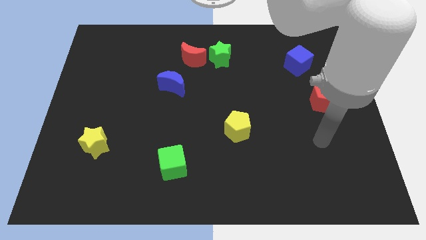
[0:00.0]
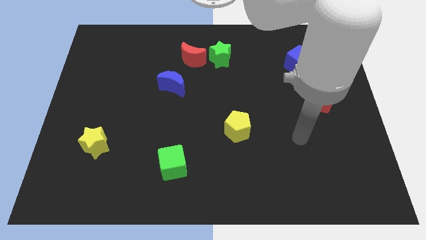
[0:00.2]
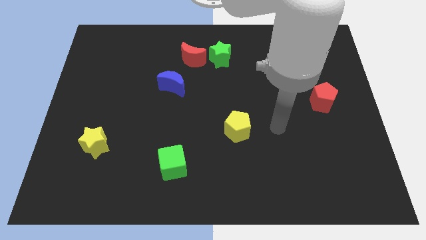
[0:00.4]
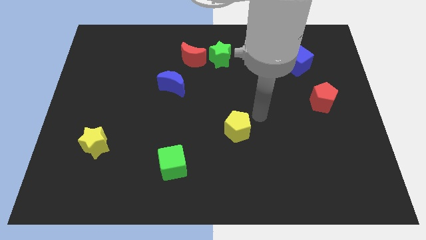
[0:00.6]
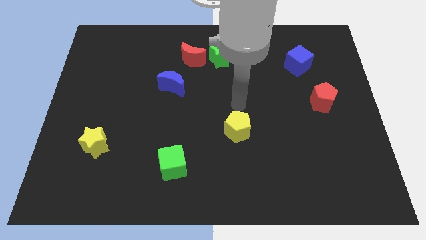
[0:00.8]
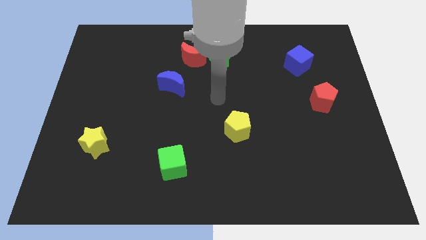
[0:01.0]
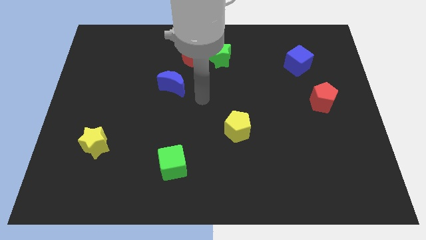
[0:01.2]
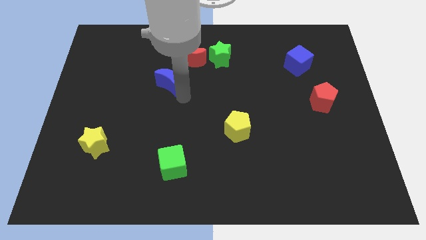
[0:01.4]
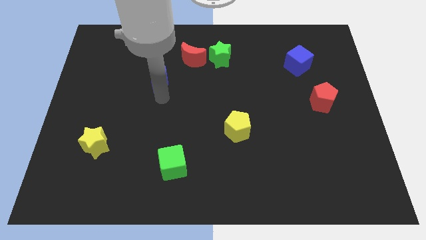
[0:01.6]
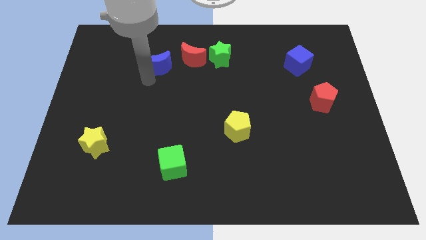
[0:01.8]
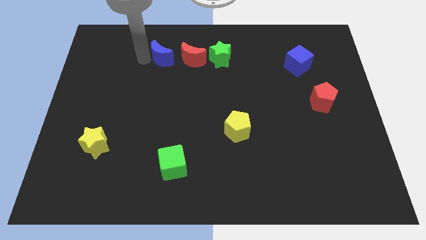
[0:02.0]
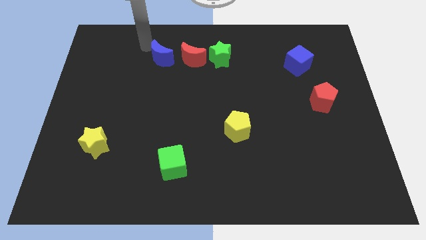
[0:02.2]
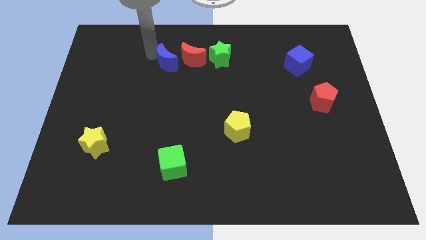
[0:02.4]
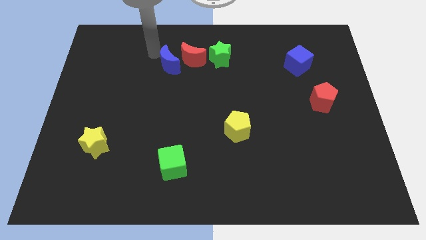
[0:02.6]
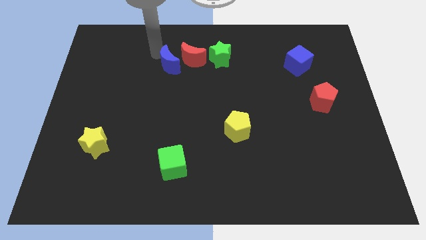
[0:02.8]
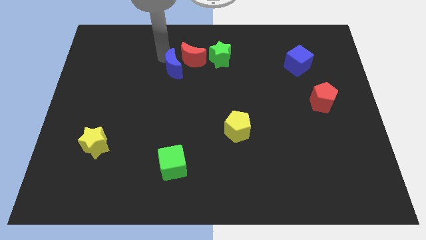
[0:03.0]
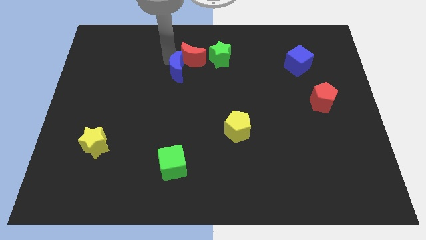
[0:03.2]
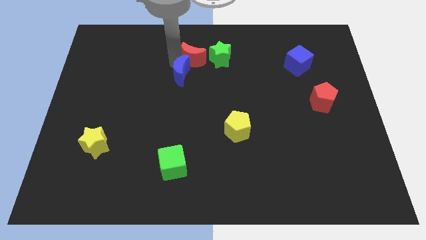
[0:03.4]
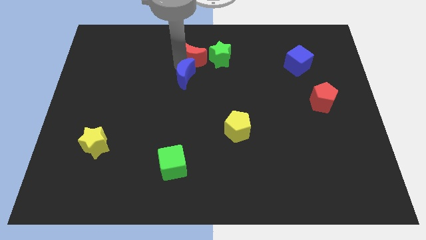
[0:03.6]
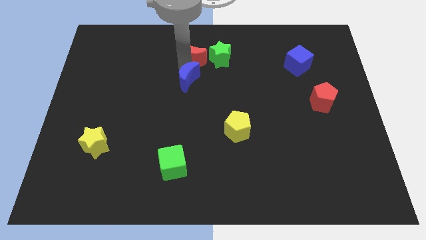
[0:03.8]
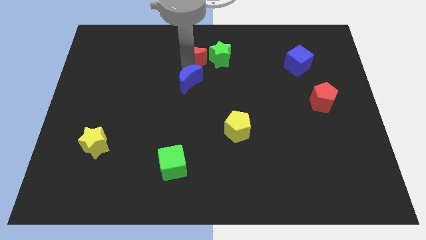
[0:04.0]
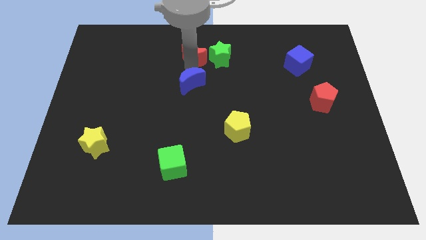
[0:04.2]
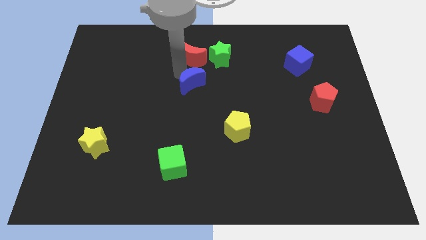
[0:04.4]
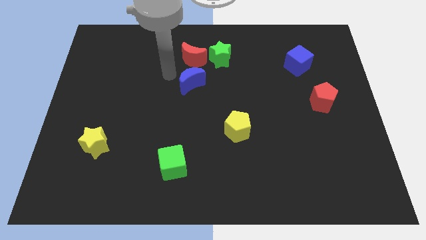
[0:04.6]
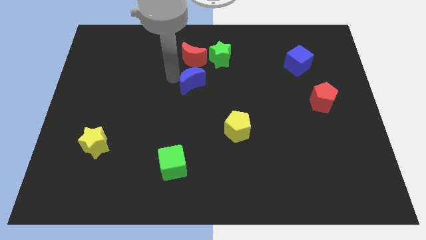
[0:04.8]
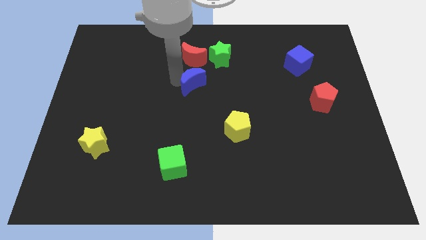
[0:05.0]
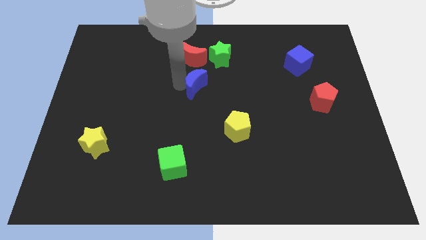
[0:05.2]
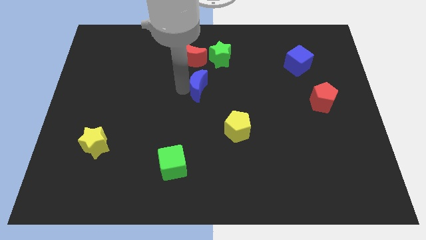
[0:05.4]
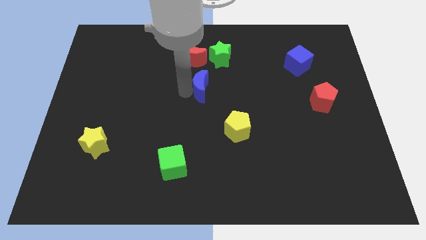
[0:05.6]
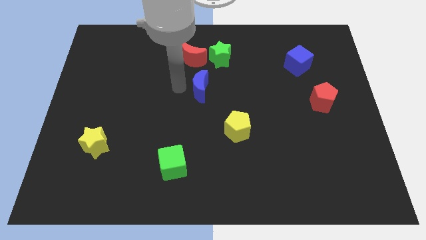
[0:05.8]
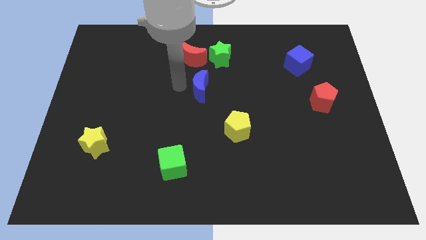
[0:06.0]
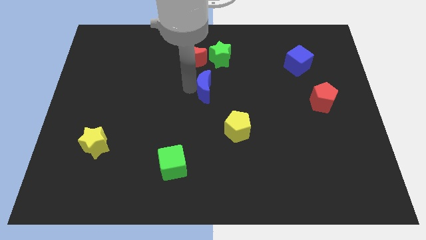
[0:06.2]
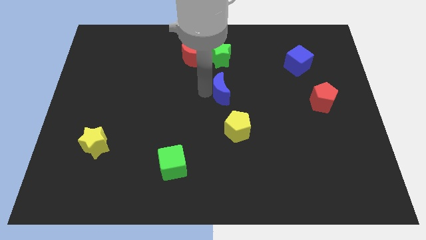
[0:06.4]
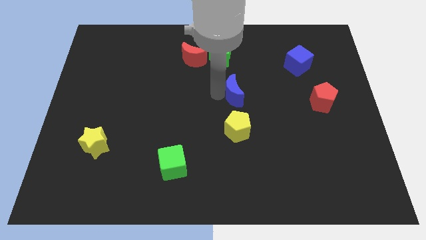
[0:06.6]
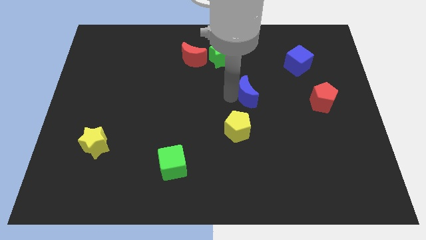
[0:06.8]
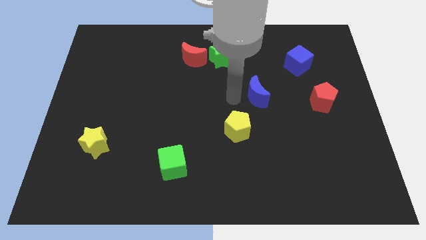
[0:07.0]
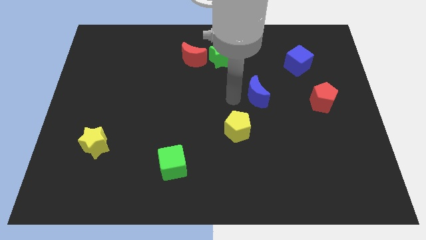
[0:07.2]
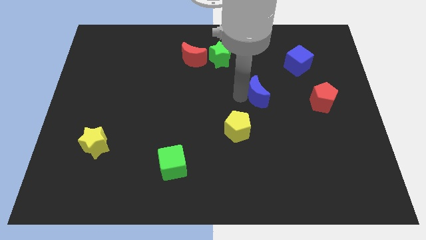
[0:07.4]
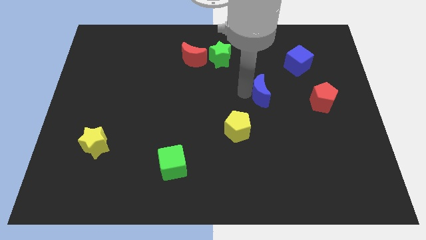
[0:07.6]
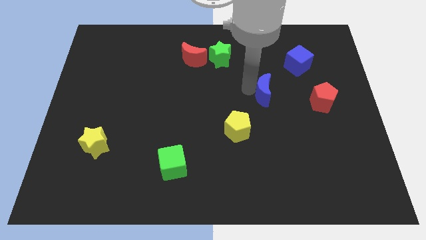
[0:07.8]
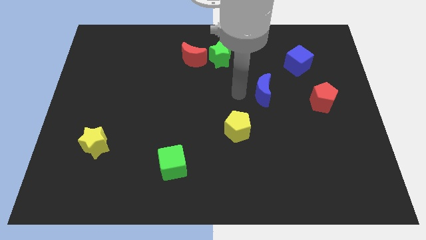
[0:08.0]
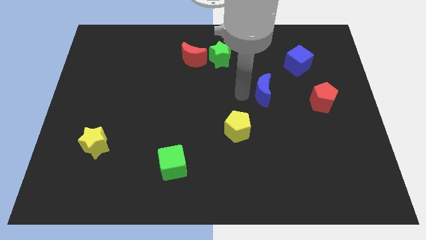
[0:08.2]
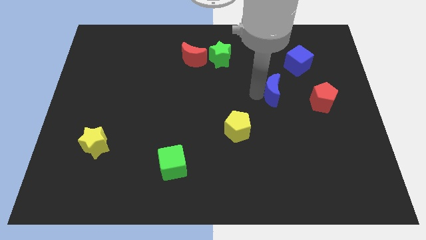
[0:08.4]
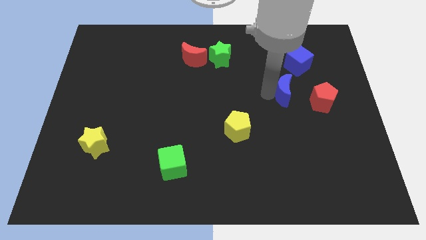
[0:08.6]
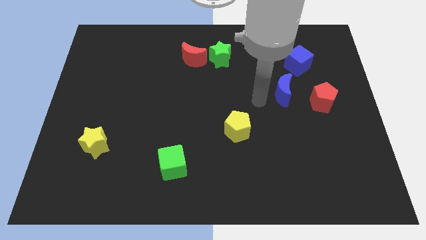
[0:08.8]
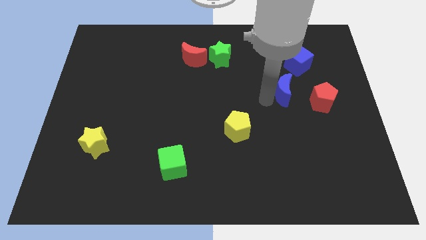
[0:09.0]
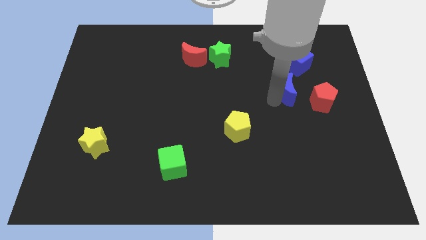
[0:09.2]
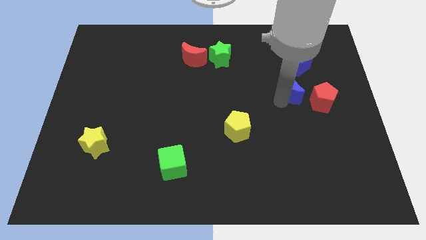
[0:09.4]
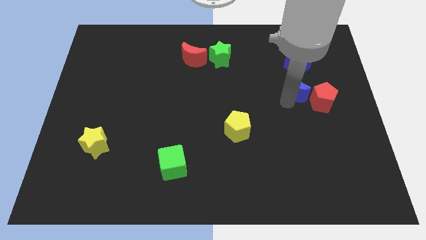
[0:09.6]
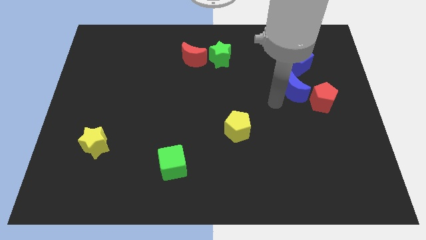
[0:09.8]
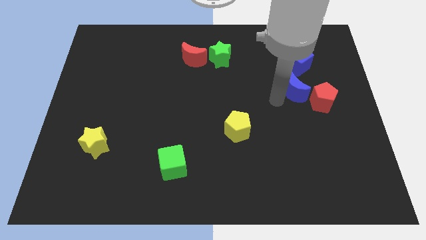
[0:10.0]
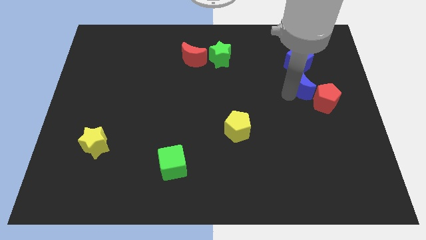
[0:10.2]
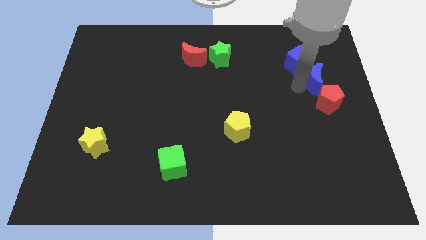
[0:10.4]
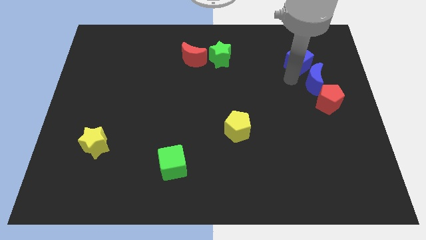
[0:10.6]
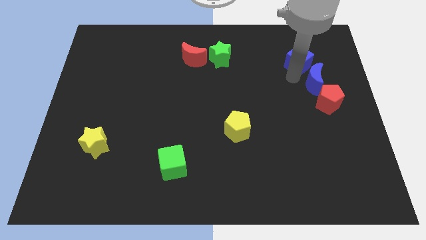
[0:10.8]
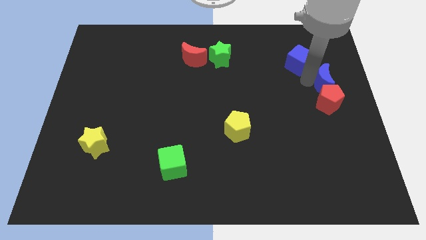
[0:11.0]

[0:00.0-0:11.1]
push the blue moon to the right side of the board

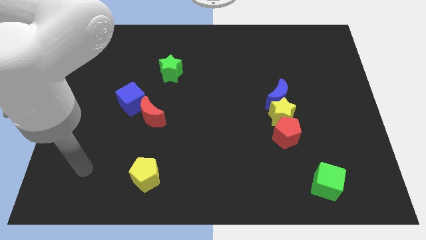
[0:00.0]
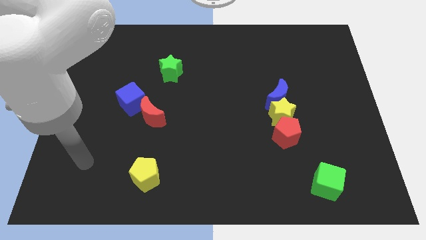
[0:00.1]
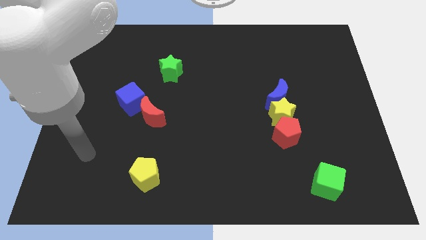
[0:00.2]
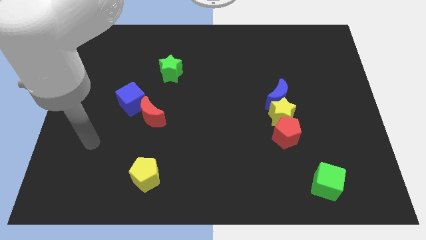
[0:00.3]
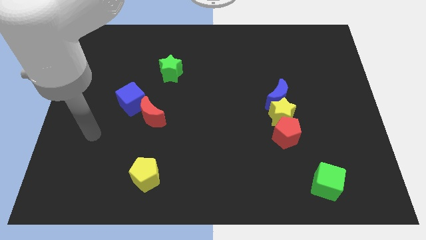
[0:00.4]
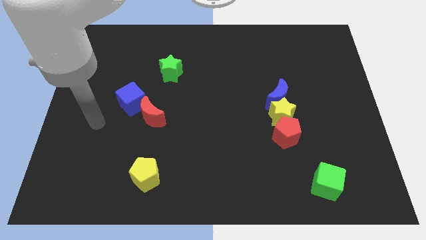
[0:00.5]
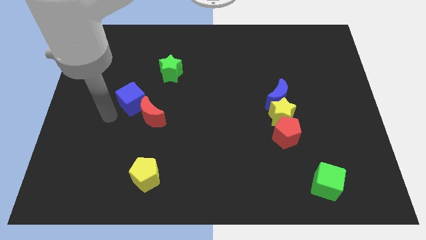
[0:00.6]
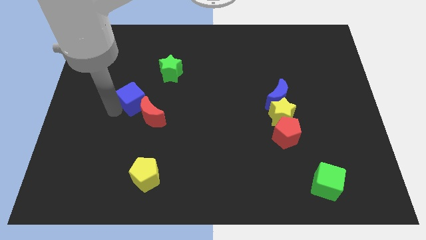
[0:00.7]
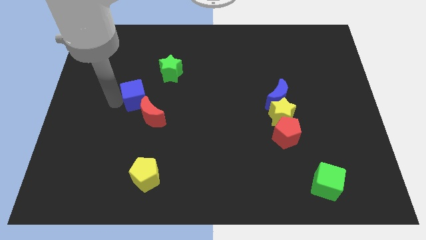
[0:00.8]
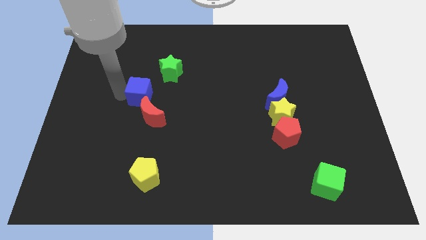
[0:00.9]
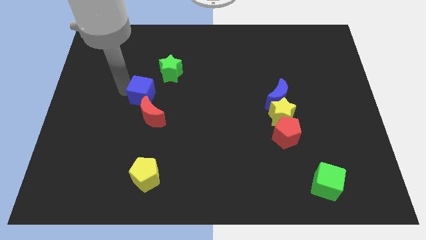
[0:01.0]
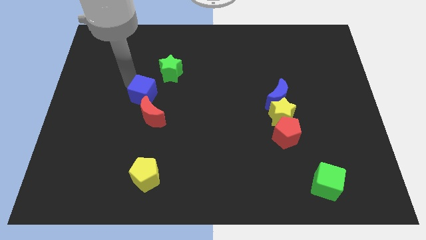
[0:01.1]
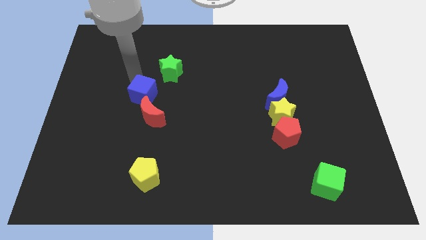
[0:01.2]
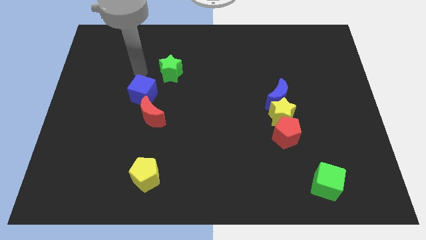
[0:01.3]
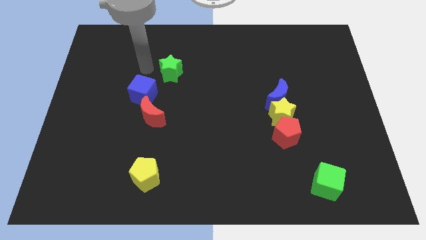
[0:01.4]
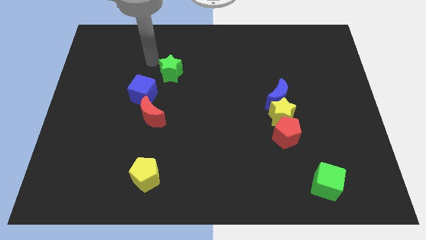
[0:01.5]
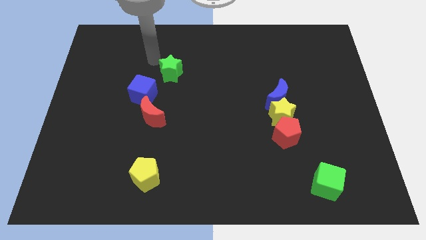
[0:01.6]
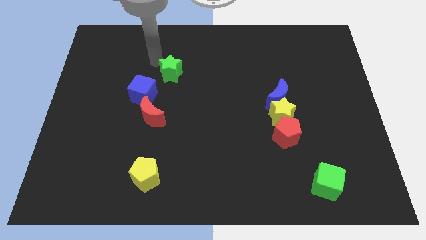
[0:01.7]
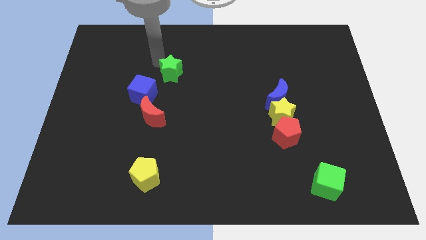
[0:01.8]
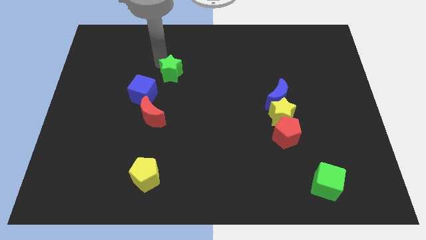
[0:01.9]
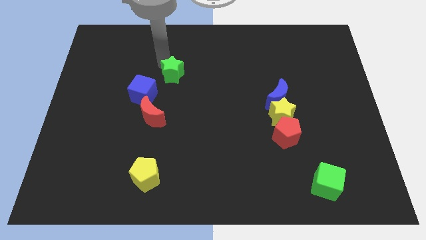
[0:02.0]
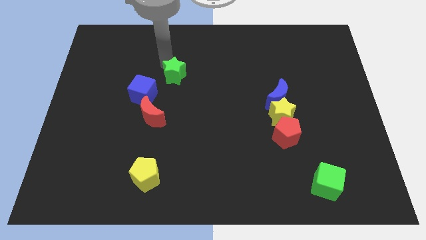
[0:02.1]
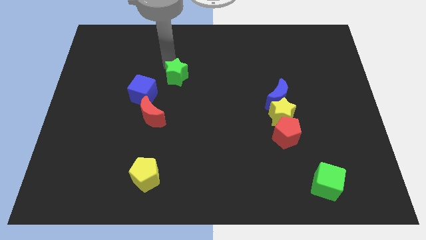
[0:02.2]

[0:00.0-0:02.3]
move the green star to the center
